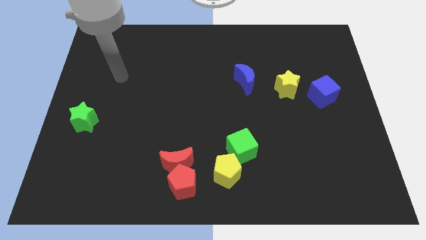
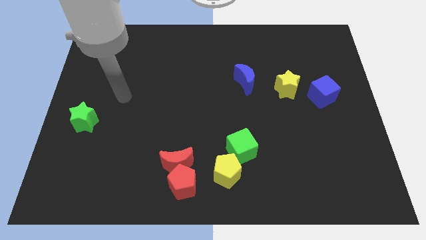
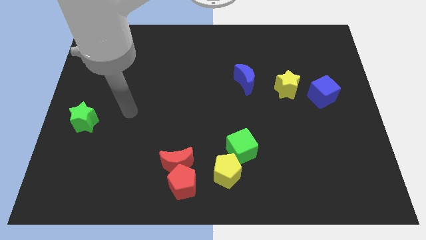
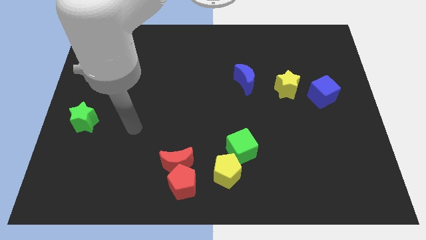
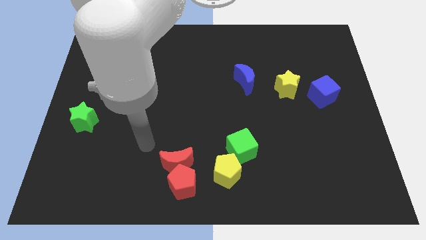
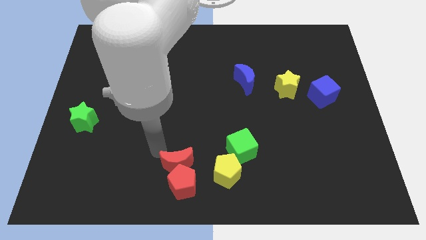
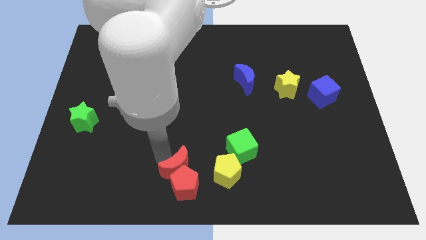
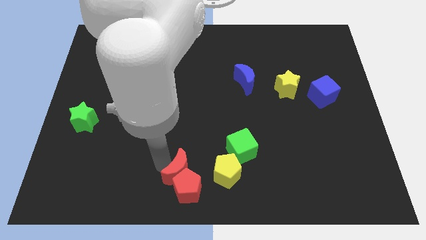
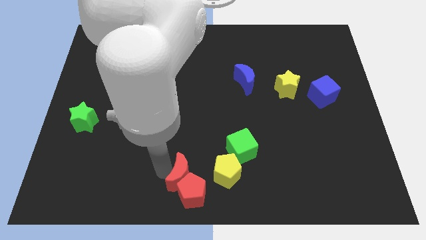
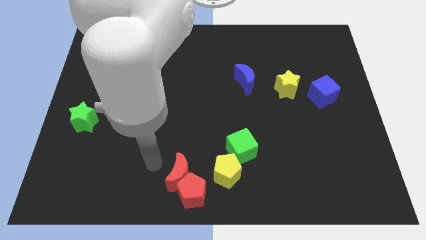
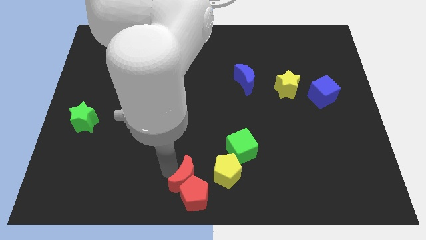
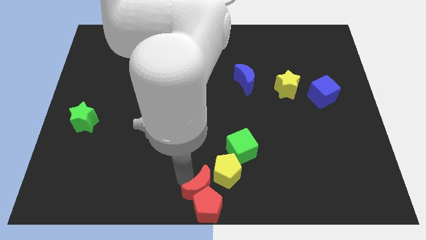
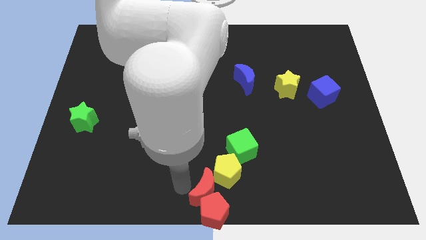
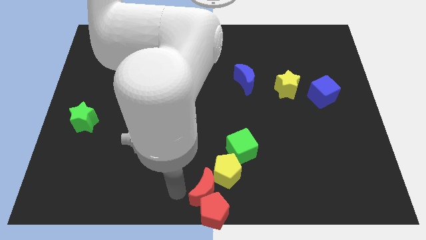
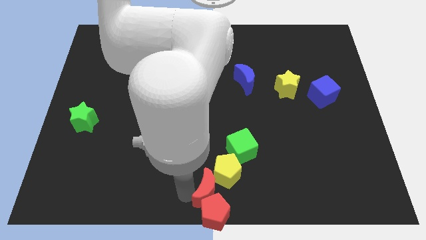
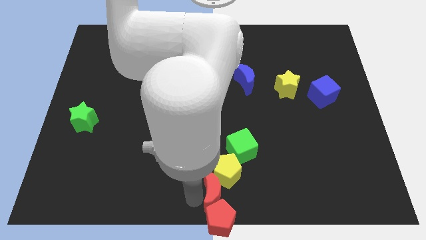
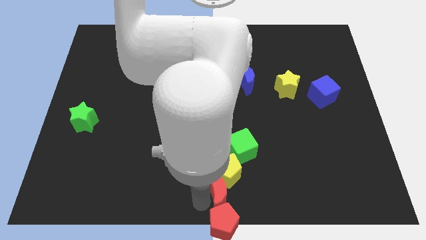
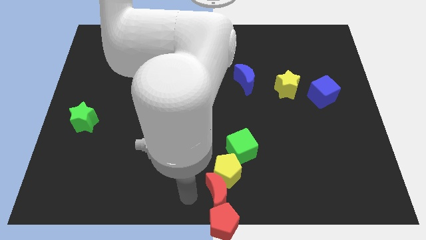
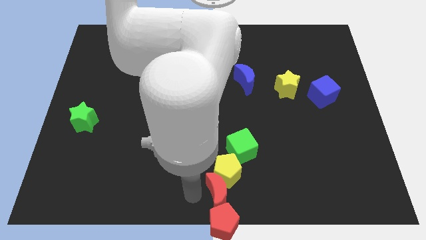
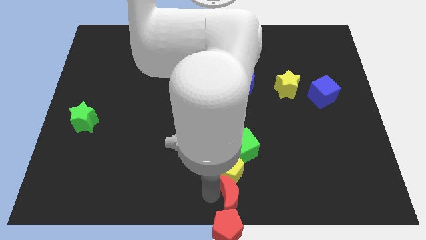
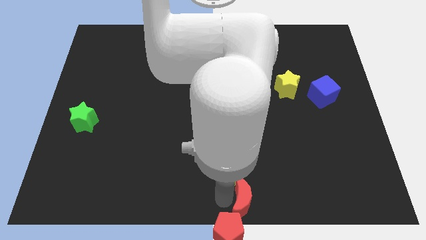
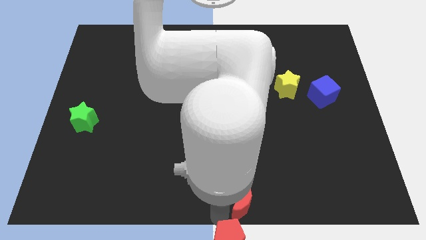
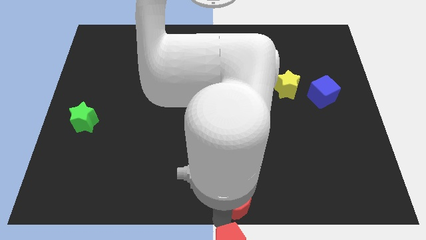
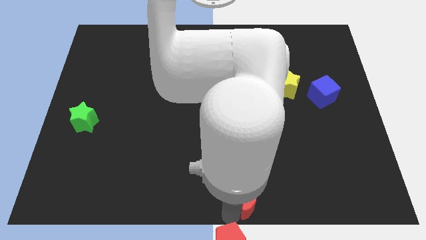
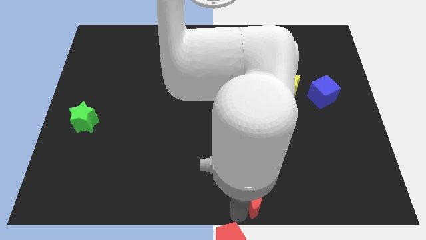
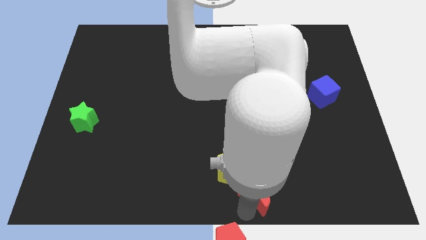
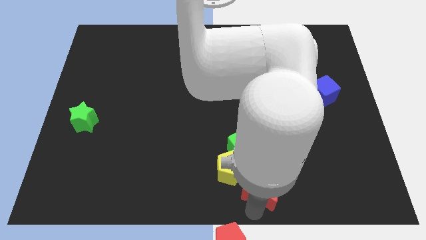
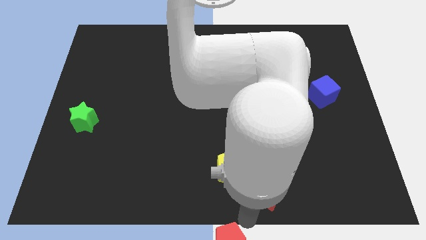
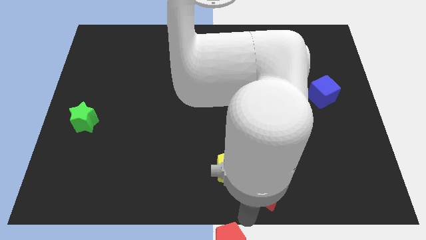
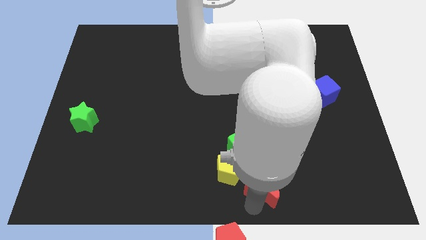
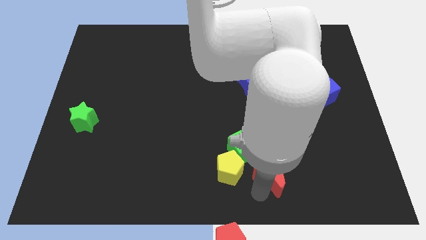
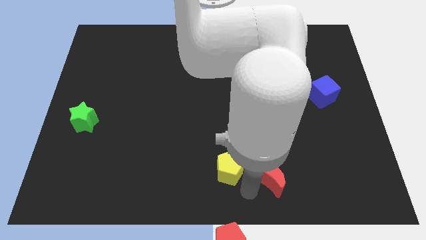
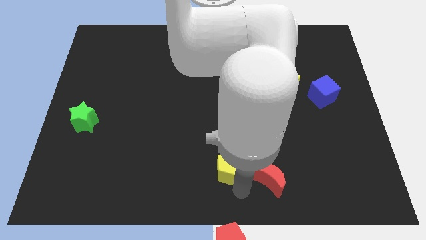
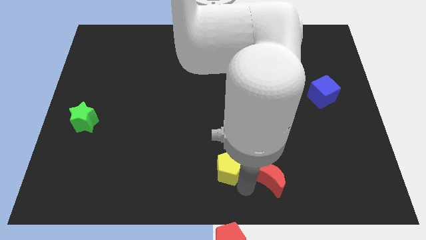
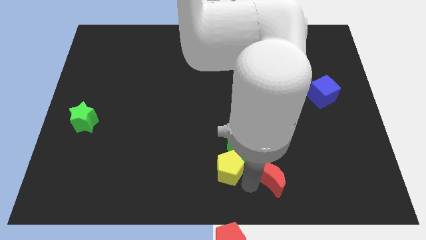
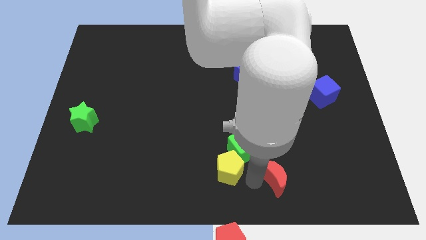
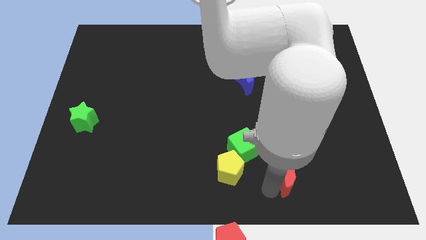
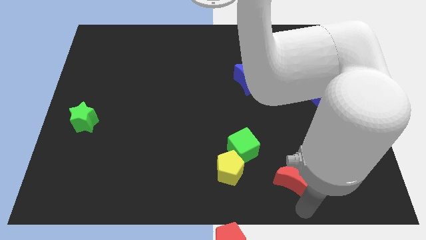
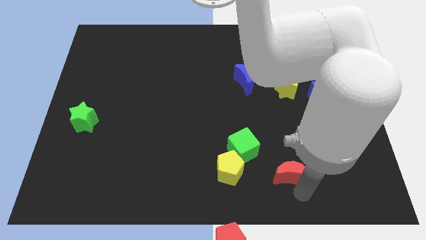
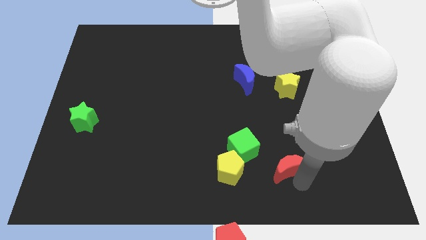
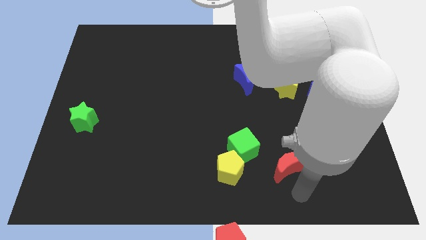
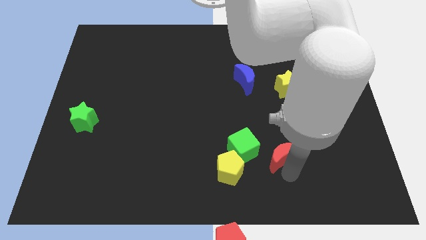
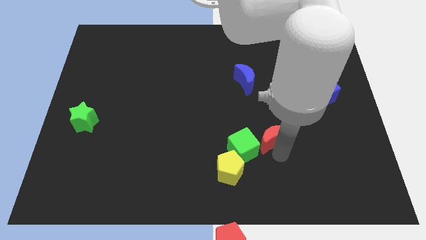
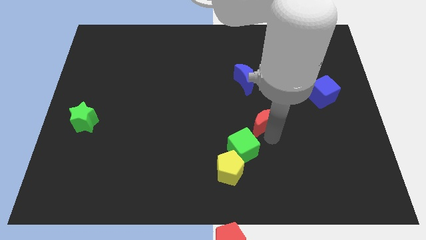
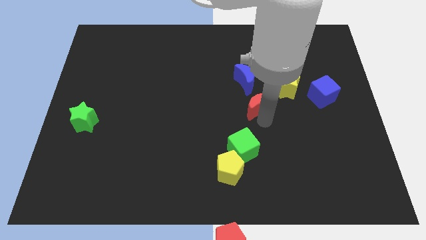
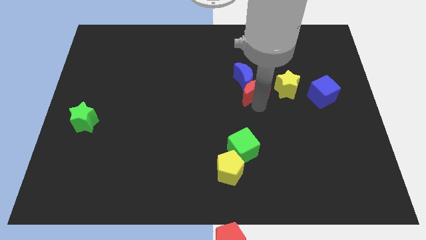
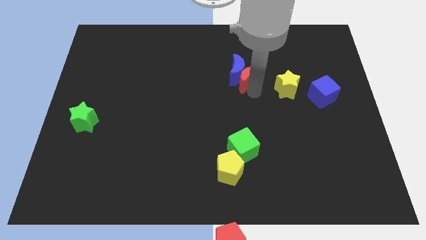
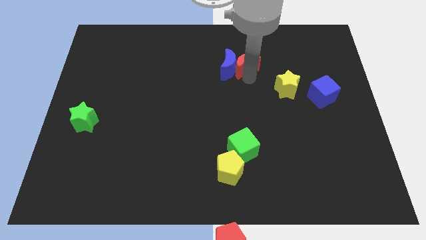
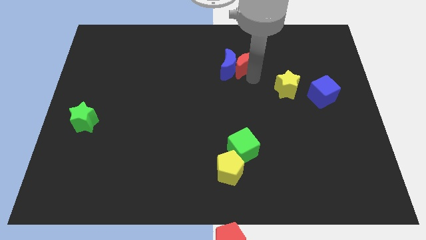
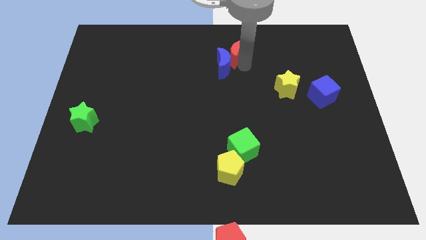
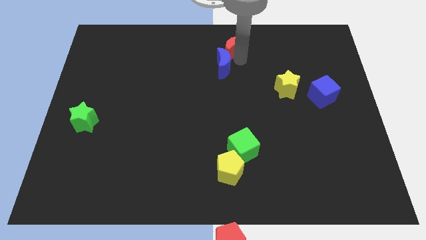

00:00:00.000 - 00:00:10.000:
put the red moon to the top

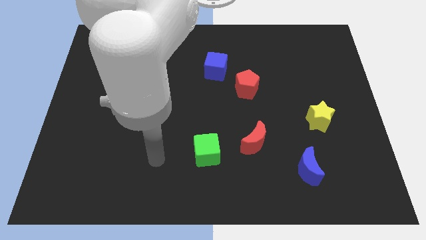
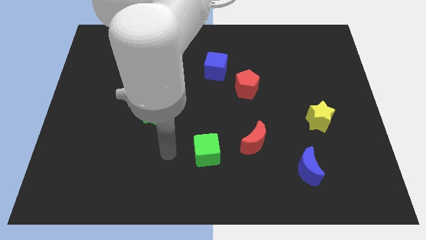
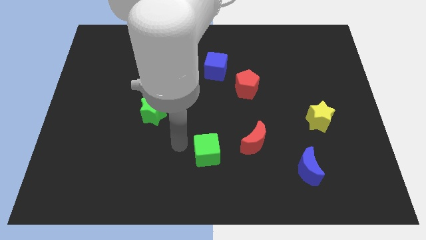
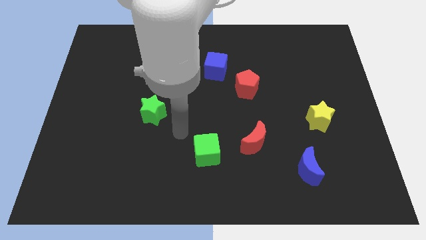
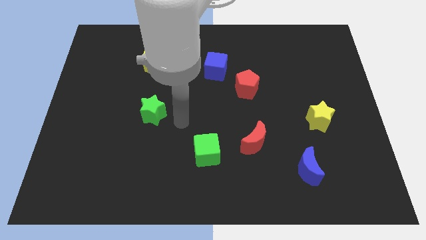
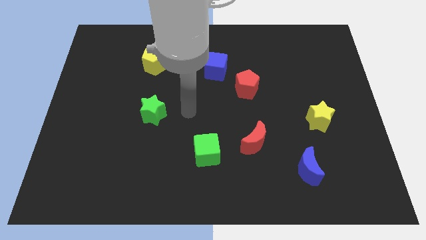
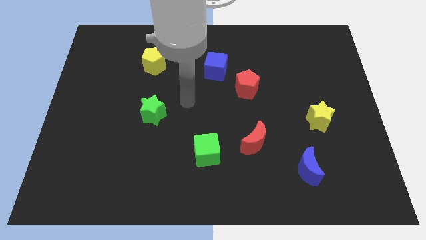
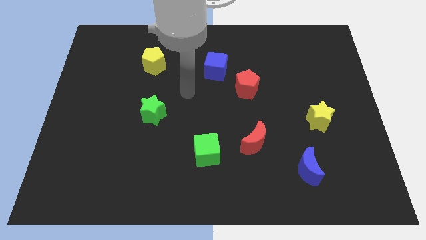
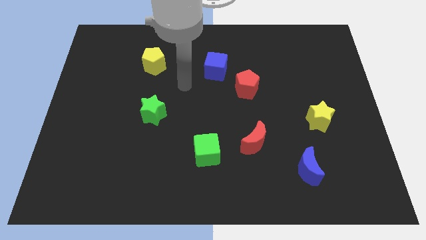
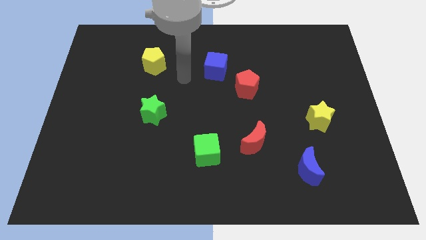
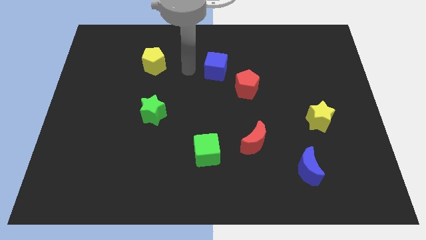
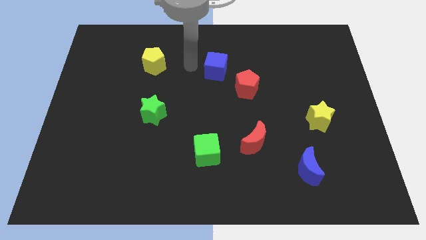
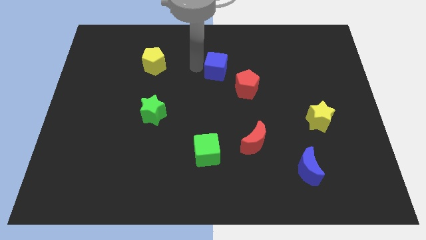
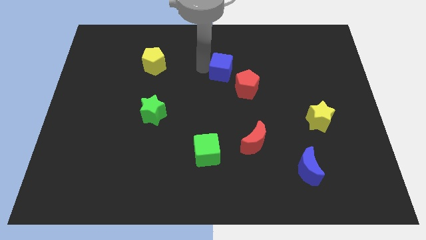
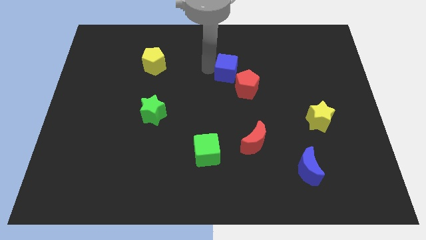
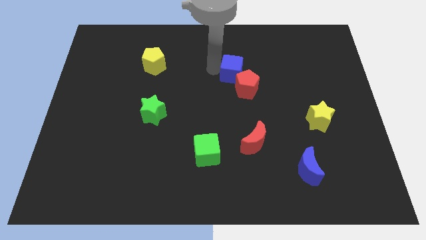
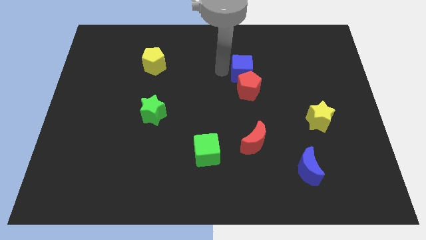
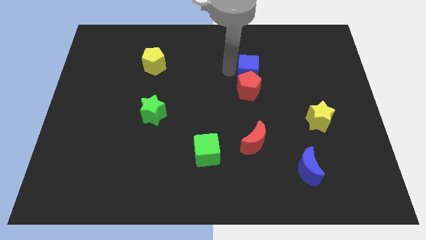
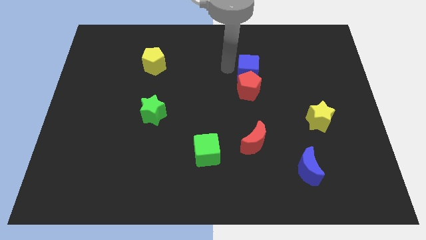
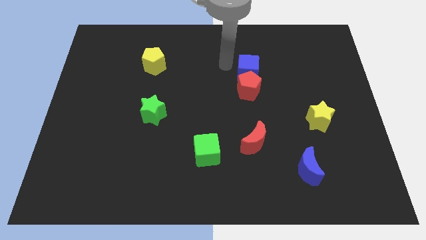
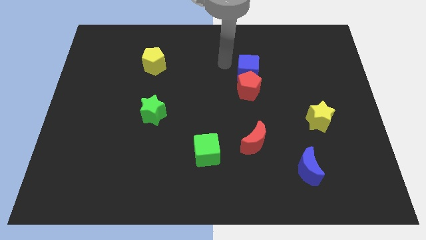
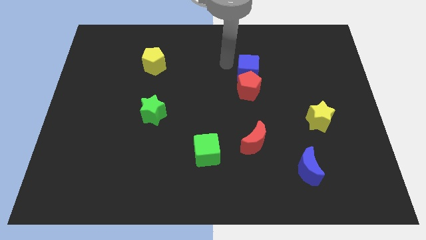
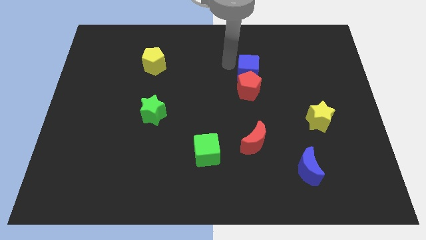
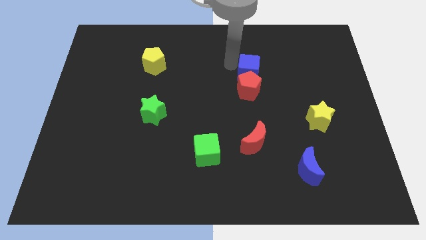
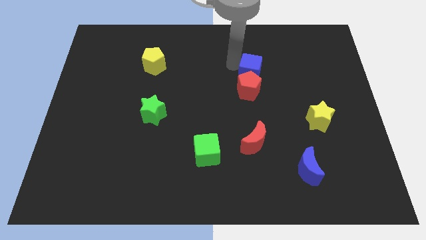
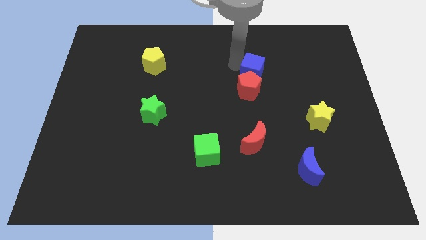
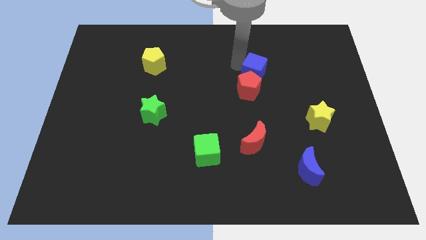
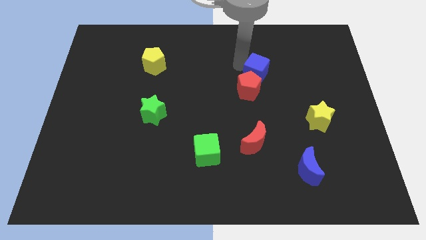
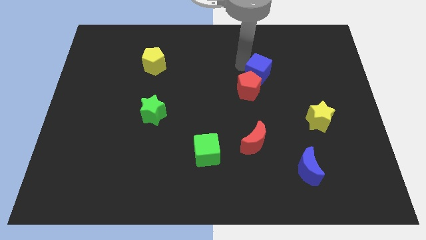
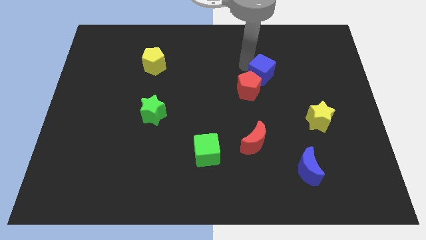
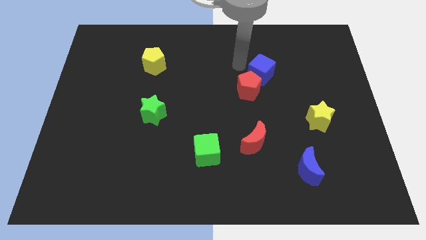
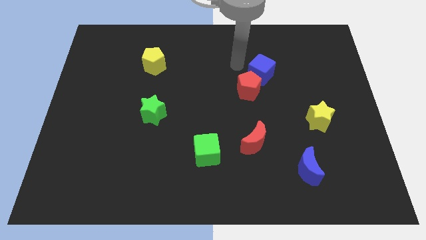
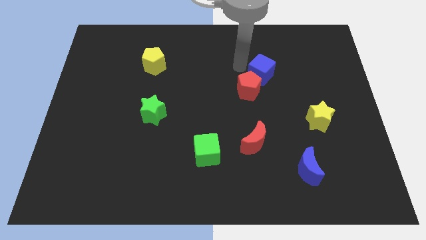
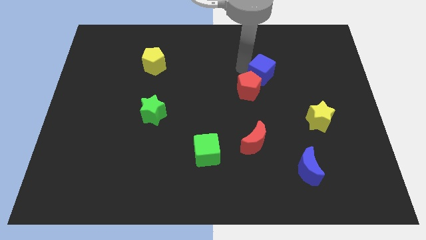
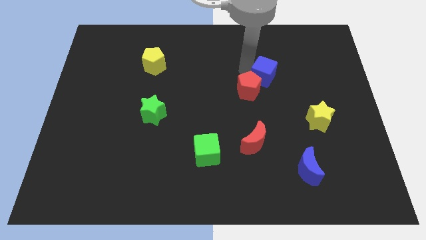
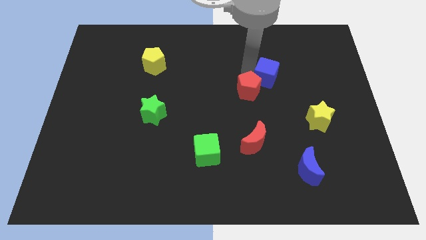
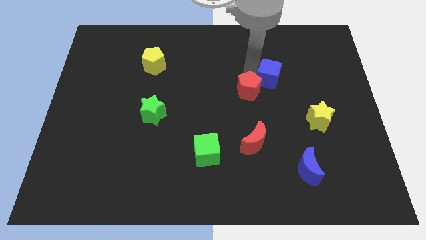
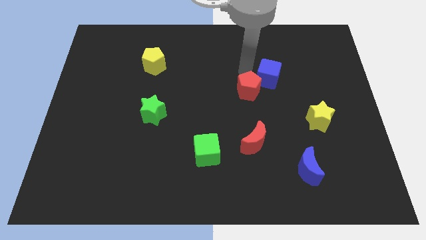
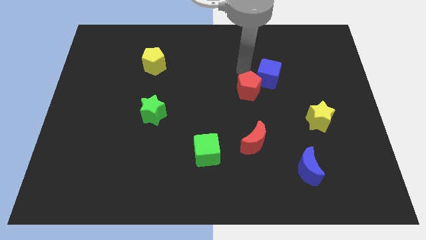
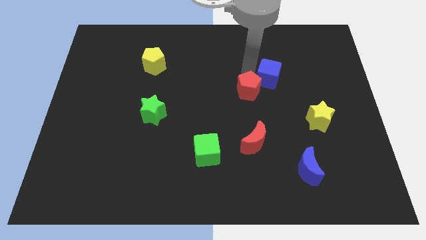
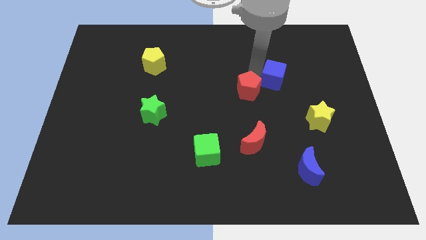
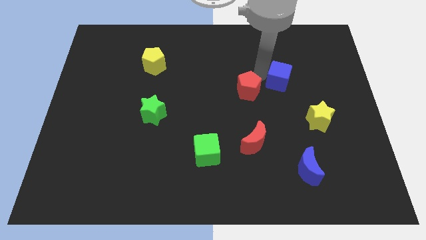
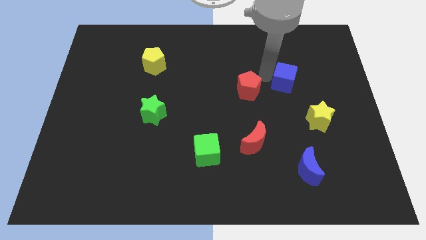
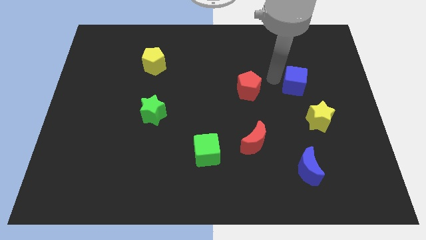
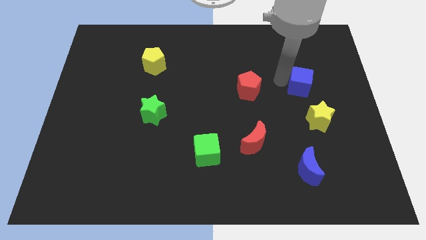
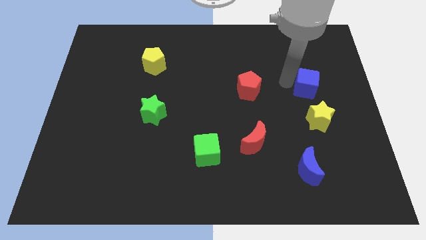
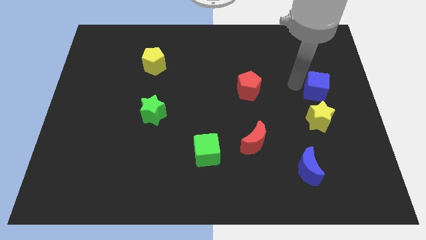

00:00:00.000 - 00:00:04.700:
put the blue cube to the right side of the board
